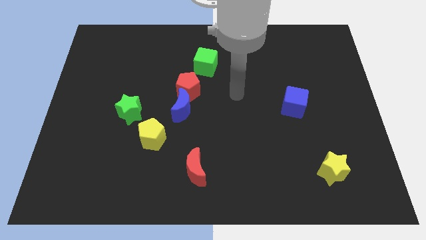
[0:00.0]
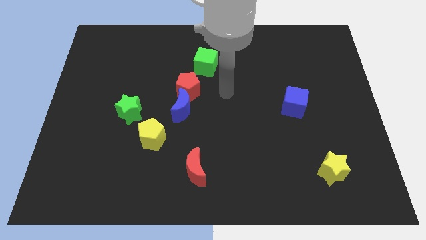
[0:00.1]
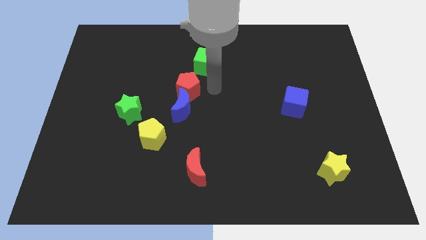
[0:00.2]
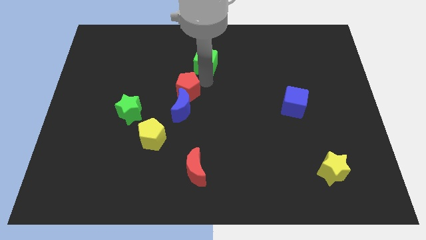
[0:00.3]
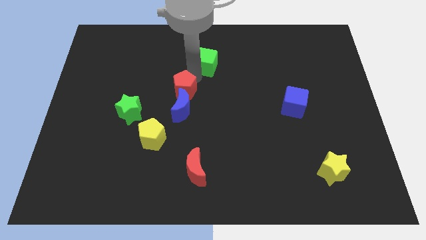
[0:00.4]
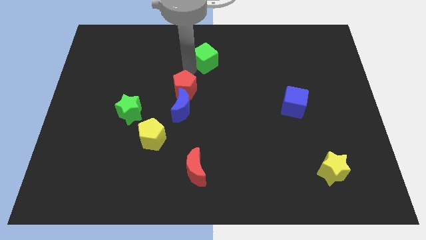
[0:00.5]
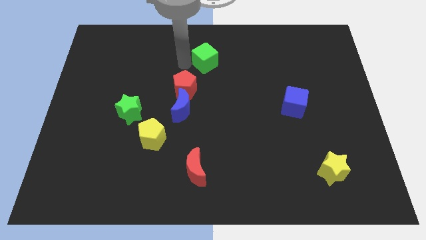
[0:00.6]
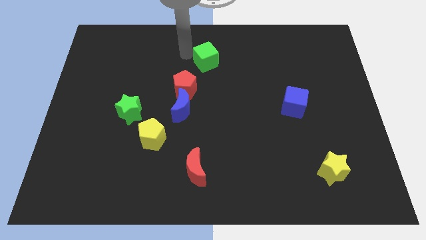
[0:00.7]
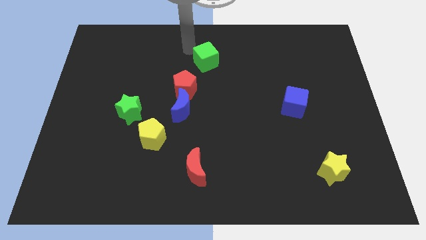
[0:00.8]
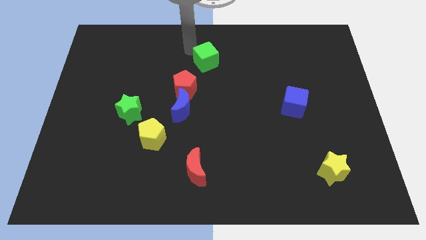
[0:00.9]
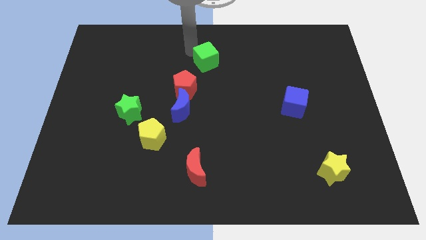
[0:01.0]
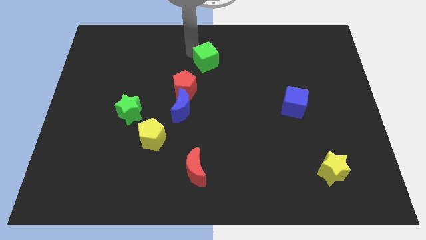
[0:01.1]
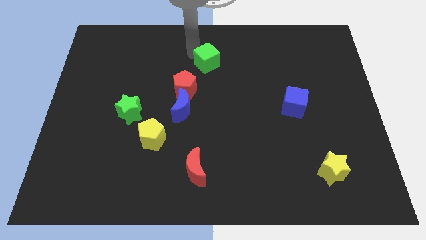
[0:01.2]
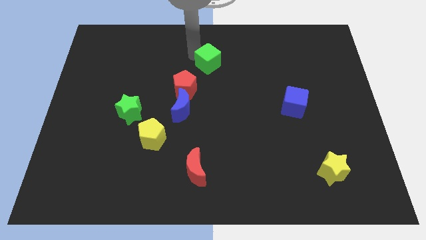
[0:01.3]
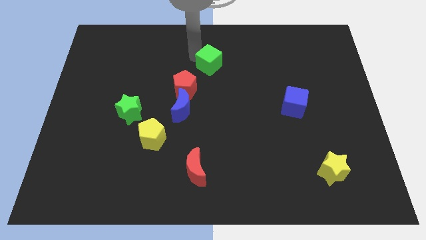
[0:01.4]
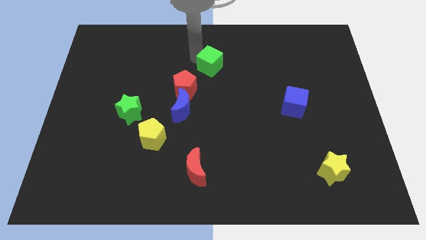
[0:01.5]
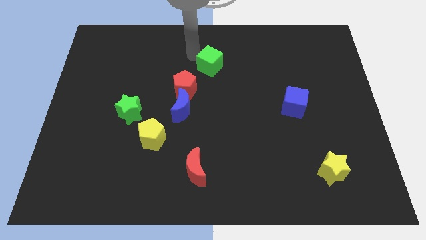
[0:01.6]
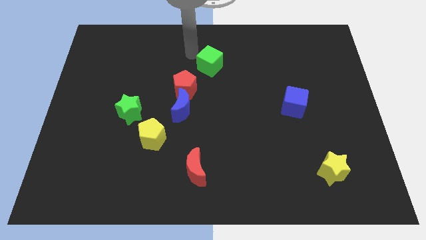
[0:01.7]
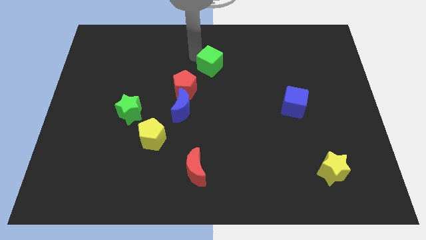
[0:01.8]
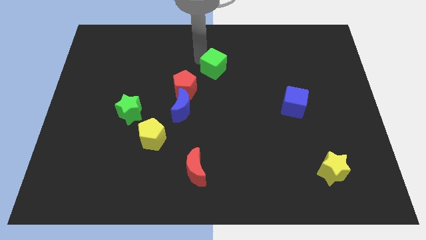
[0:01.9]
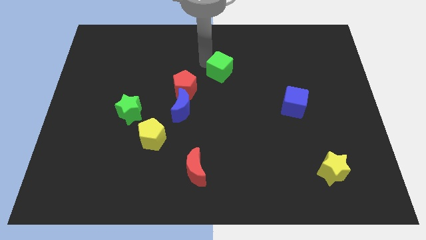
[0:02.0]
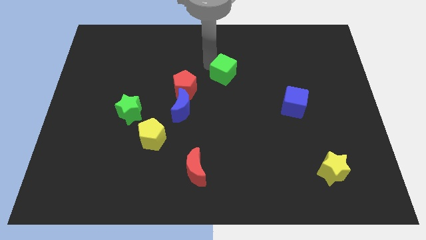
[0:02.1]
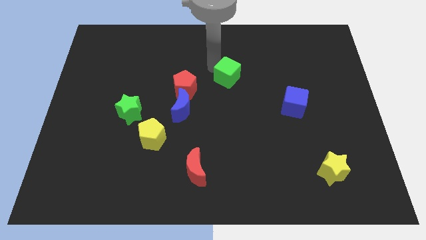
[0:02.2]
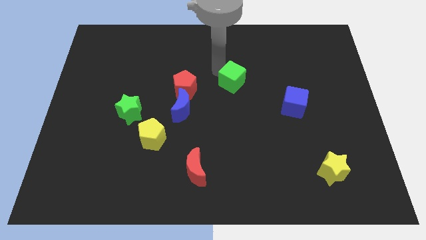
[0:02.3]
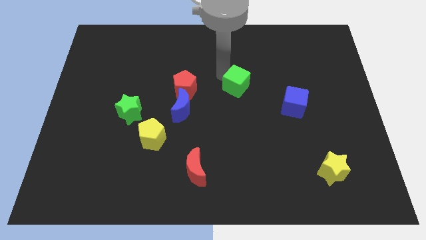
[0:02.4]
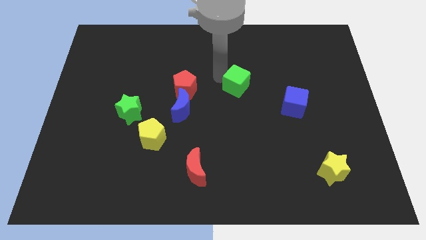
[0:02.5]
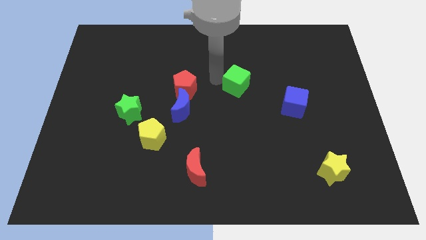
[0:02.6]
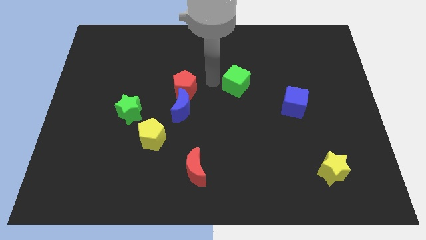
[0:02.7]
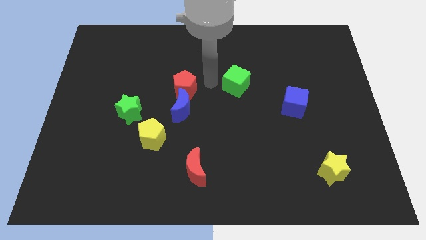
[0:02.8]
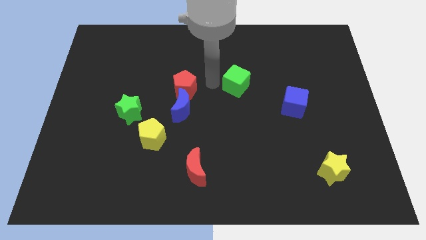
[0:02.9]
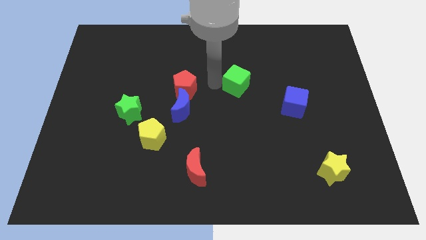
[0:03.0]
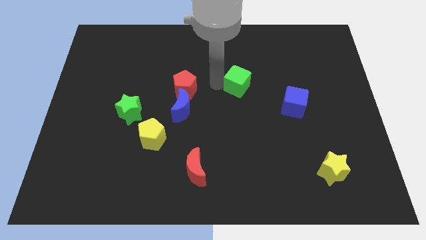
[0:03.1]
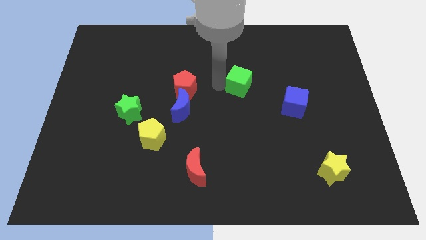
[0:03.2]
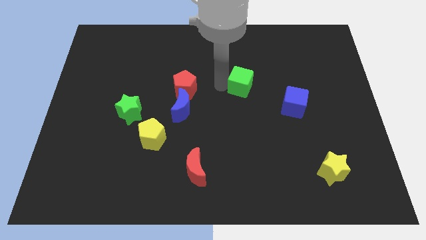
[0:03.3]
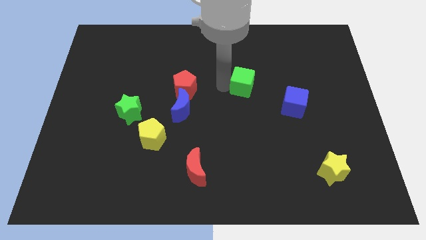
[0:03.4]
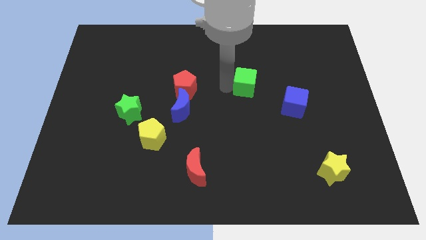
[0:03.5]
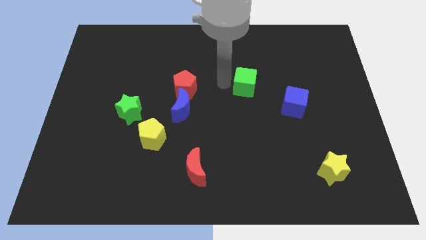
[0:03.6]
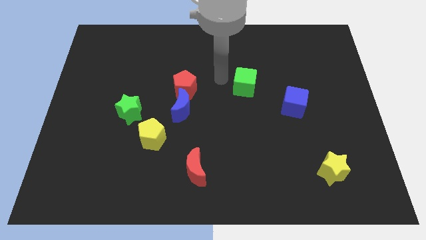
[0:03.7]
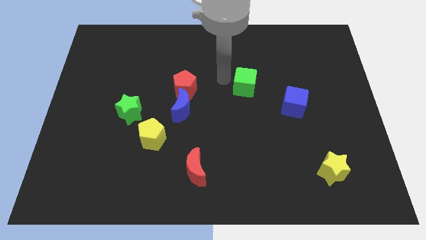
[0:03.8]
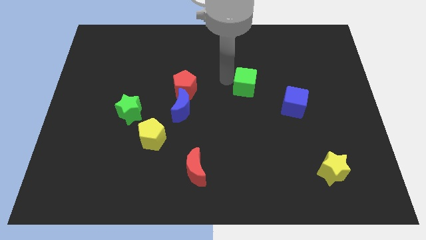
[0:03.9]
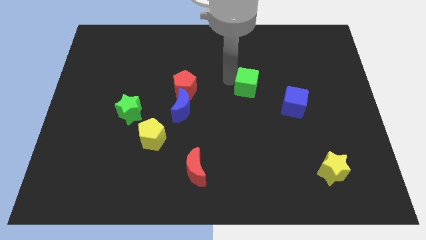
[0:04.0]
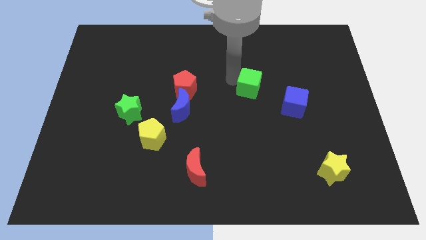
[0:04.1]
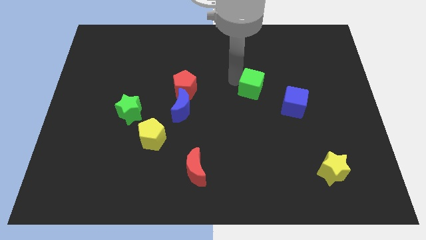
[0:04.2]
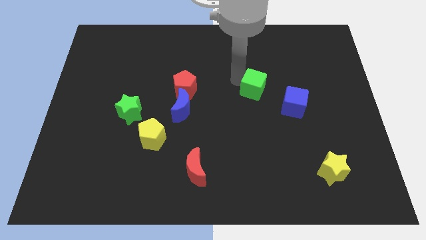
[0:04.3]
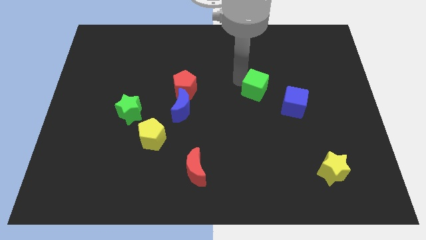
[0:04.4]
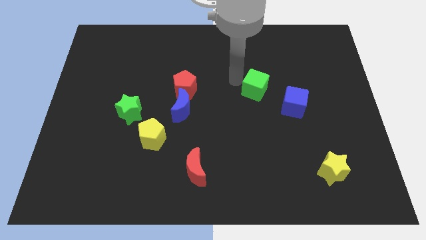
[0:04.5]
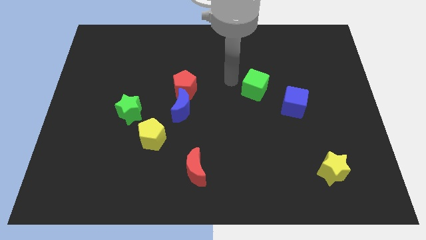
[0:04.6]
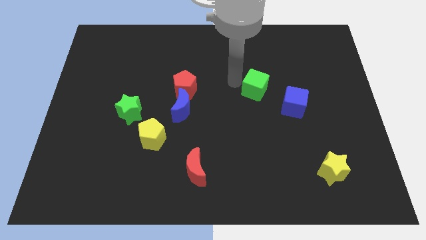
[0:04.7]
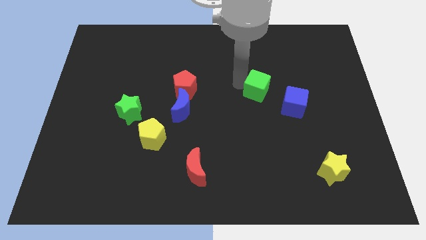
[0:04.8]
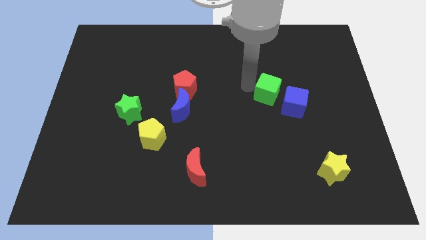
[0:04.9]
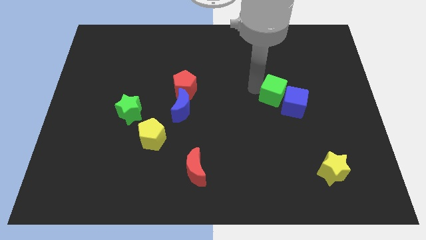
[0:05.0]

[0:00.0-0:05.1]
slide the green cube close to the blue cube

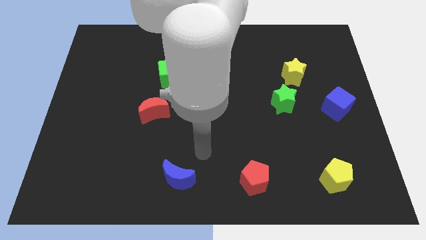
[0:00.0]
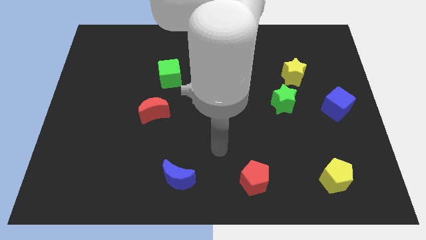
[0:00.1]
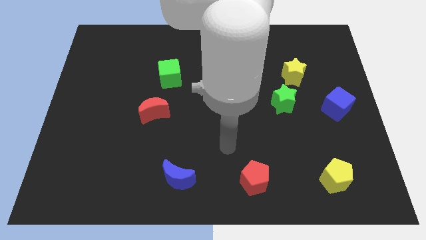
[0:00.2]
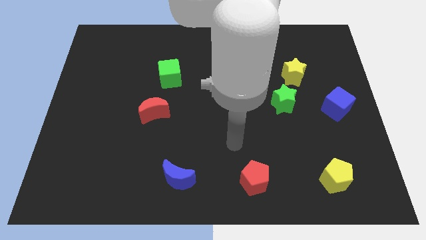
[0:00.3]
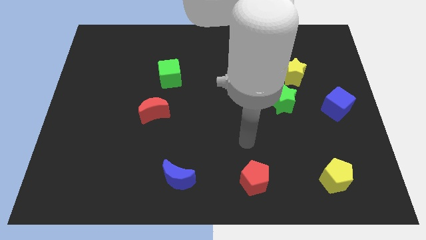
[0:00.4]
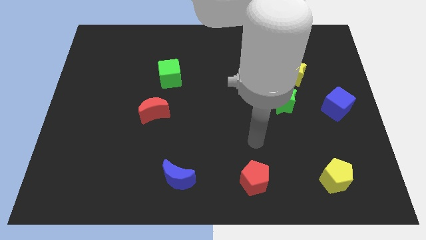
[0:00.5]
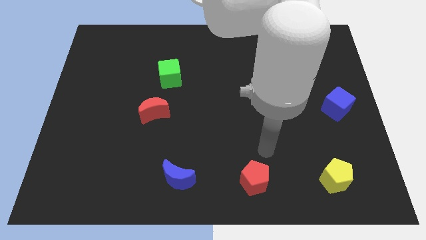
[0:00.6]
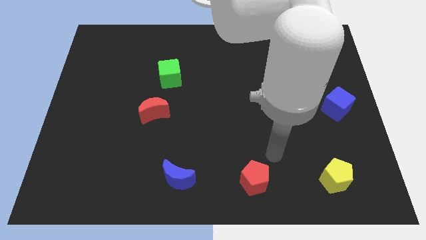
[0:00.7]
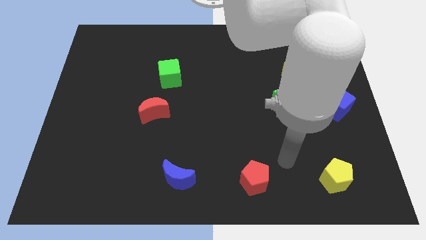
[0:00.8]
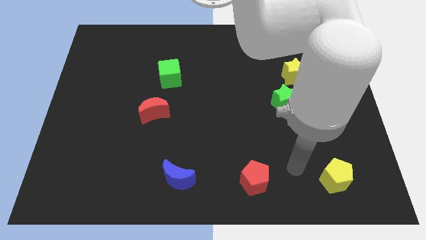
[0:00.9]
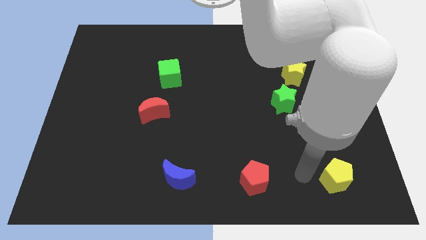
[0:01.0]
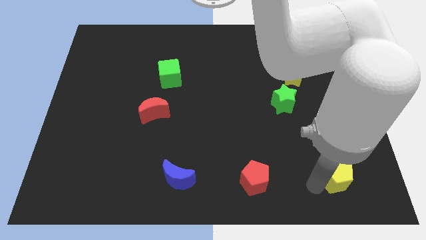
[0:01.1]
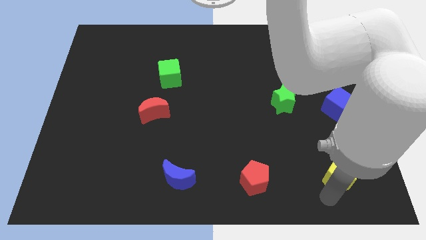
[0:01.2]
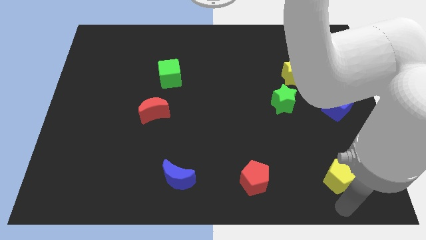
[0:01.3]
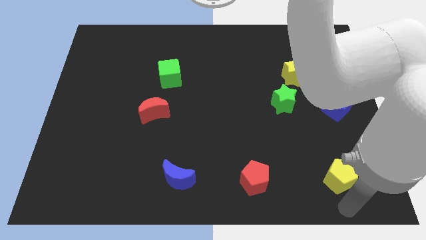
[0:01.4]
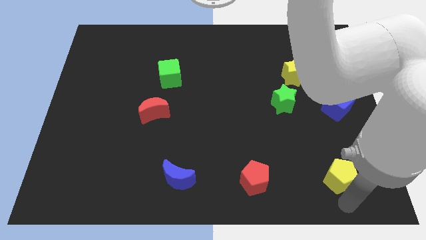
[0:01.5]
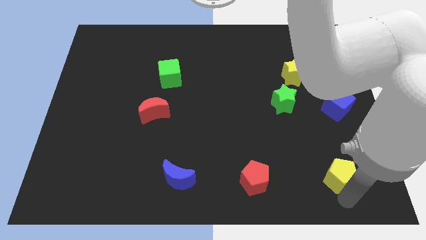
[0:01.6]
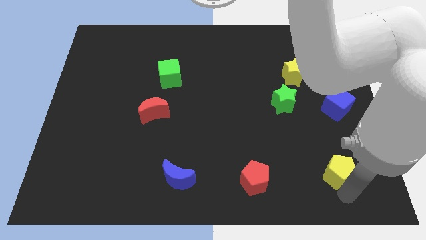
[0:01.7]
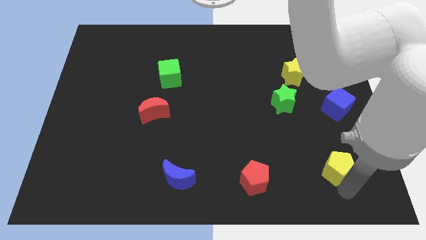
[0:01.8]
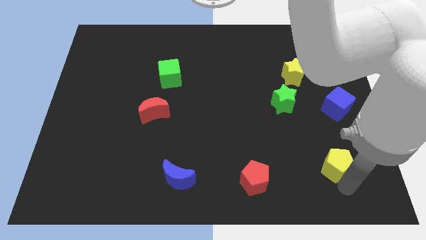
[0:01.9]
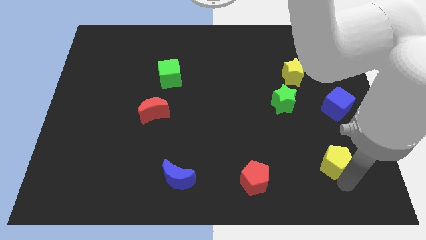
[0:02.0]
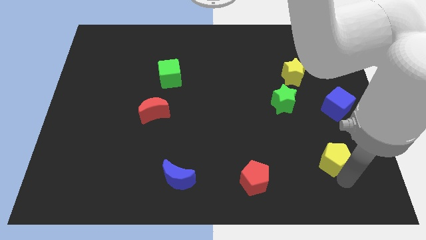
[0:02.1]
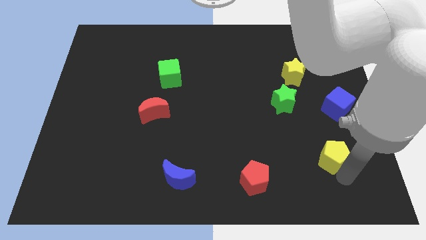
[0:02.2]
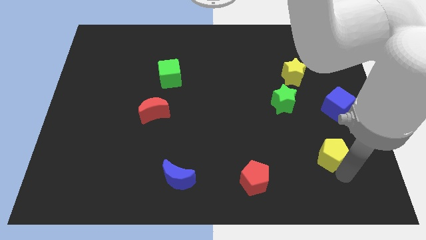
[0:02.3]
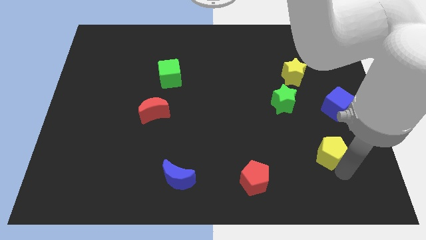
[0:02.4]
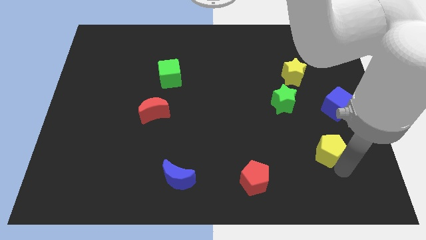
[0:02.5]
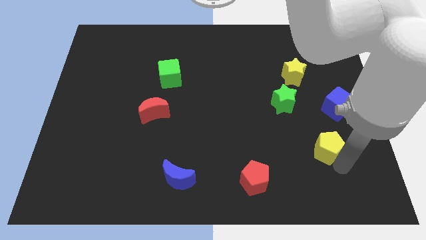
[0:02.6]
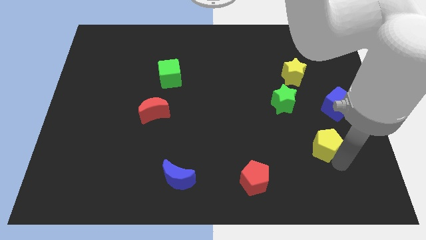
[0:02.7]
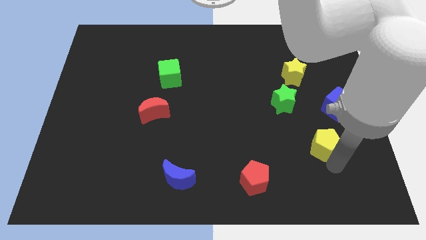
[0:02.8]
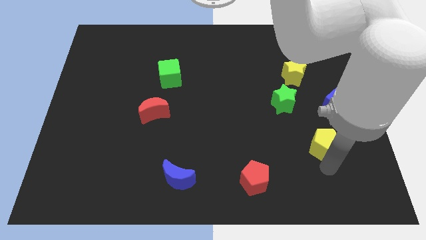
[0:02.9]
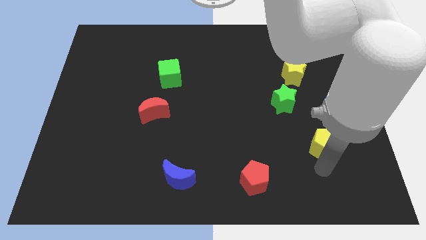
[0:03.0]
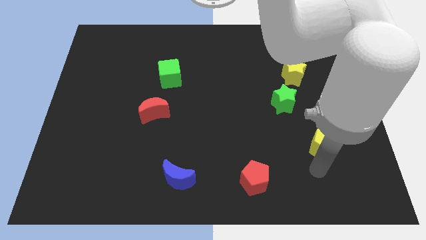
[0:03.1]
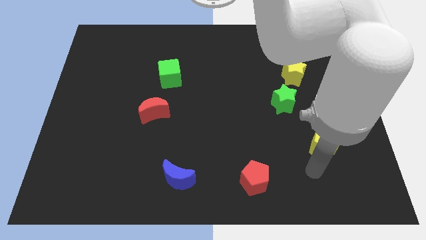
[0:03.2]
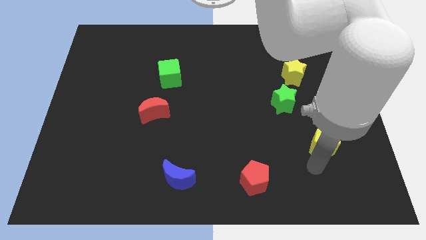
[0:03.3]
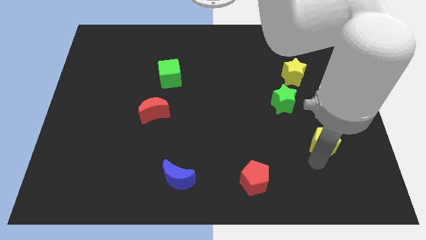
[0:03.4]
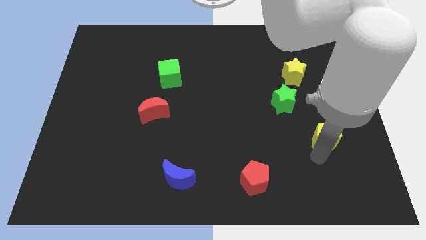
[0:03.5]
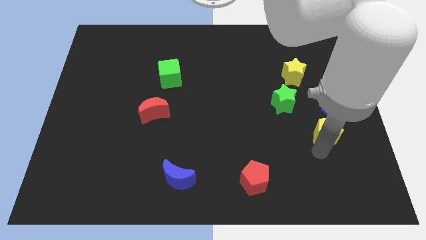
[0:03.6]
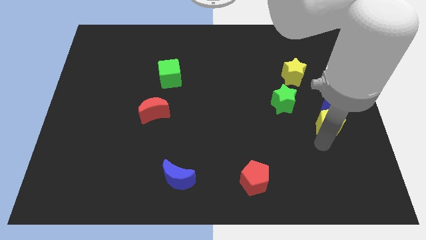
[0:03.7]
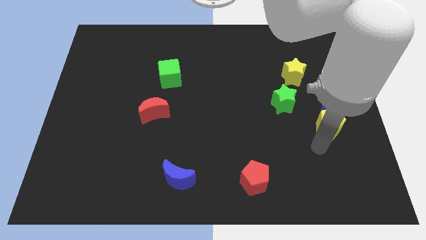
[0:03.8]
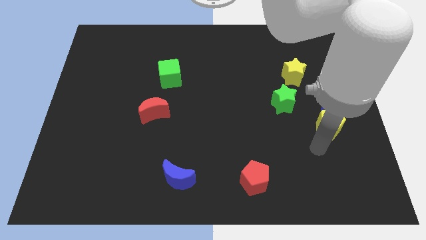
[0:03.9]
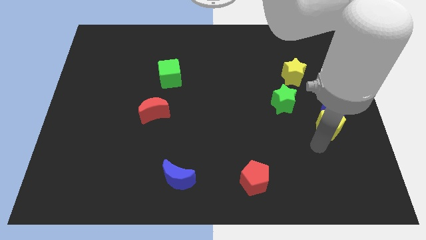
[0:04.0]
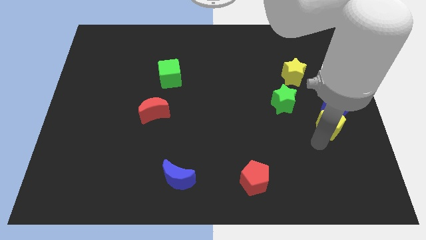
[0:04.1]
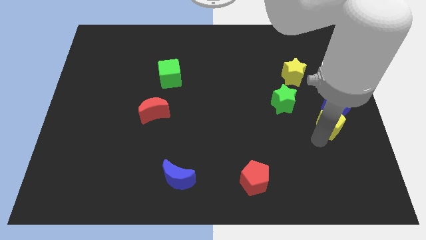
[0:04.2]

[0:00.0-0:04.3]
move the yellow pentagon close to the blue cube
